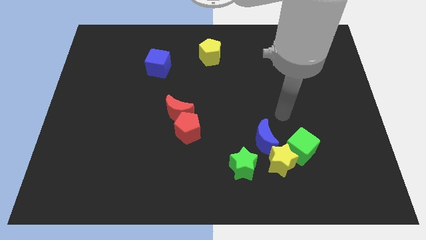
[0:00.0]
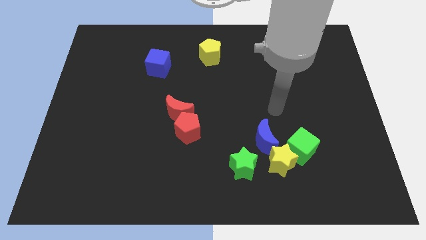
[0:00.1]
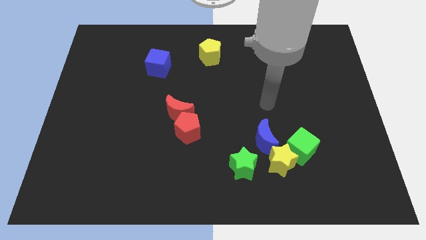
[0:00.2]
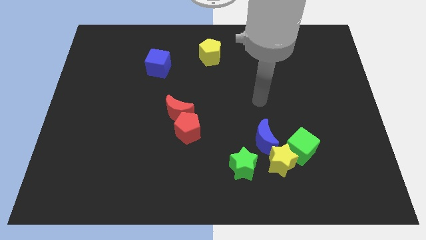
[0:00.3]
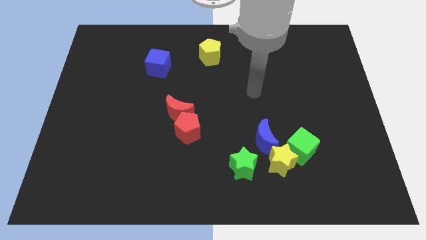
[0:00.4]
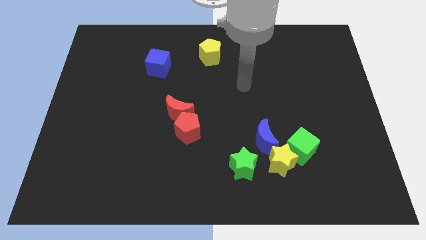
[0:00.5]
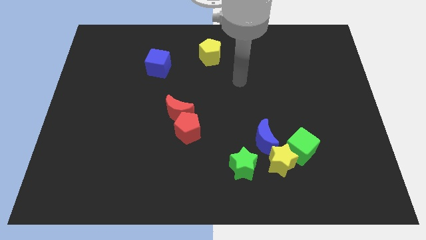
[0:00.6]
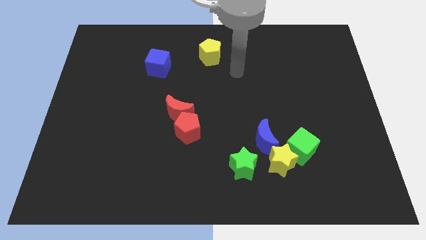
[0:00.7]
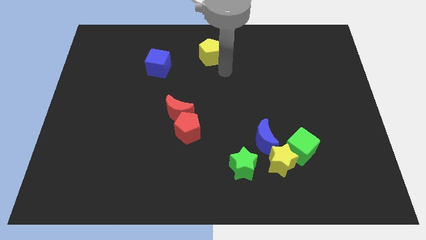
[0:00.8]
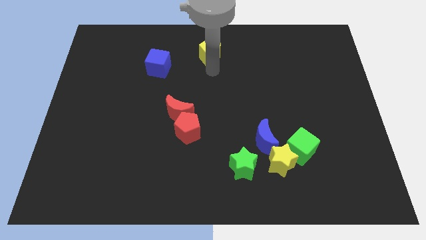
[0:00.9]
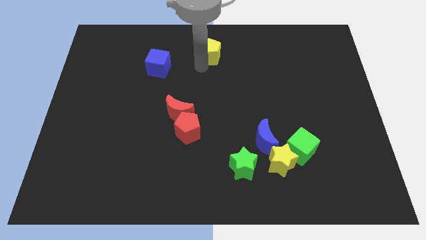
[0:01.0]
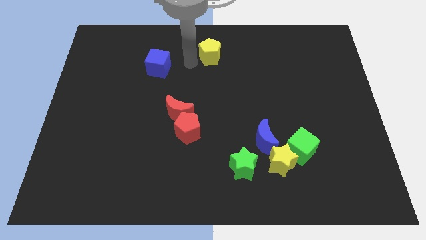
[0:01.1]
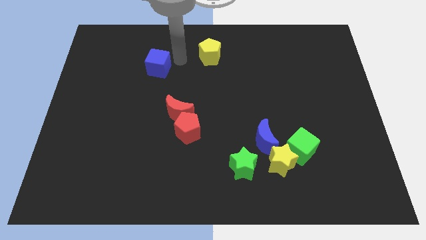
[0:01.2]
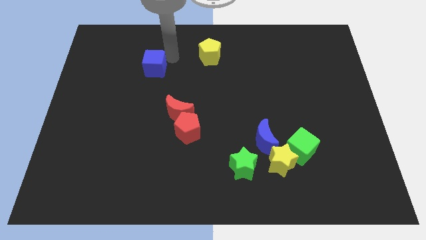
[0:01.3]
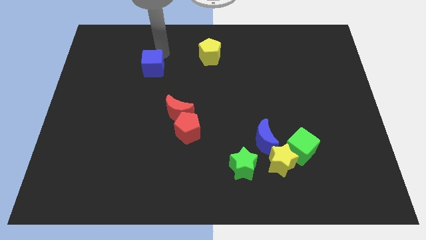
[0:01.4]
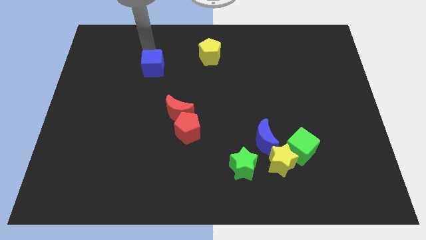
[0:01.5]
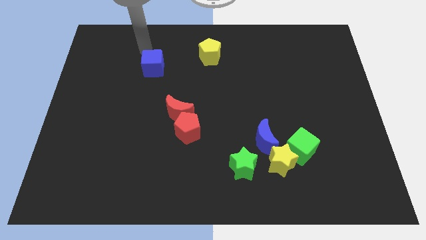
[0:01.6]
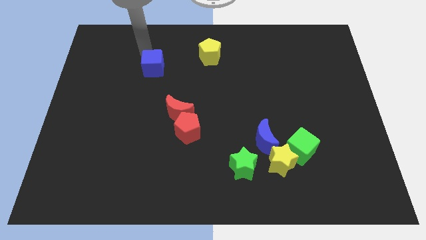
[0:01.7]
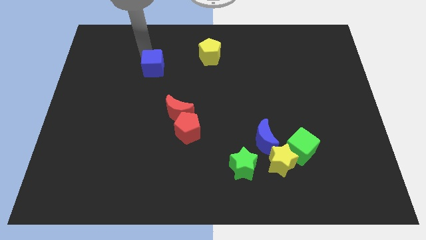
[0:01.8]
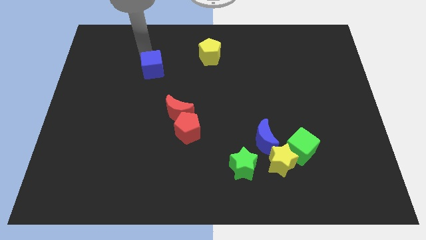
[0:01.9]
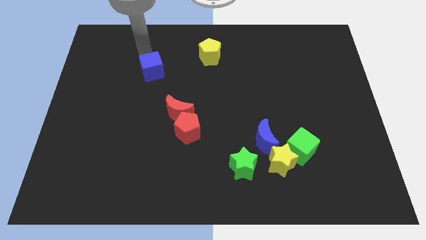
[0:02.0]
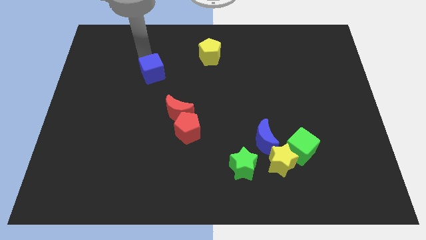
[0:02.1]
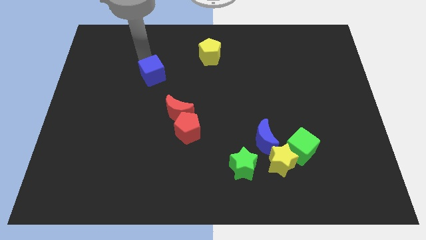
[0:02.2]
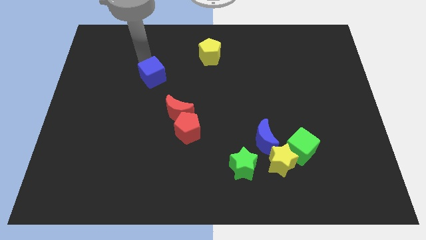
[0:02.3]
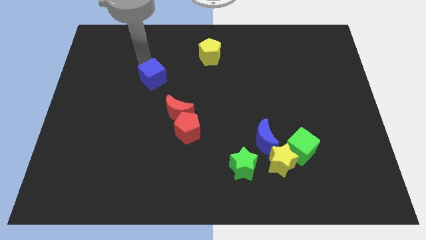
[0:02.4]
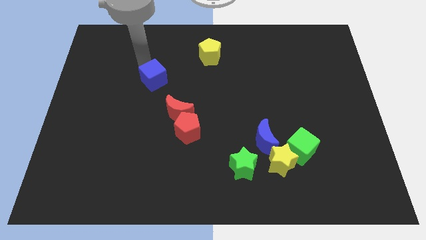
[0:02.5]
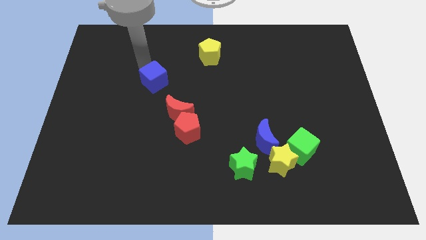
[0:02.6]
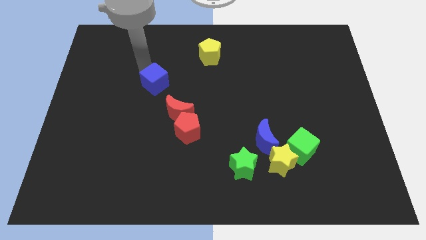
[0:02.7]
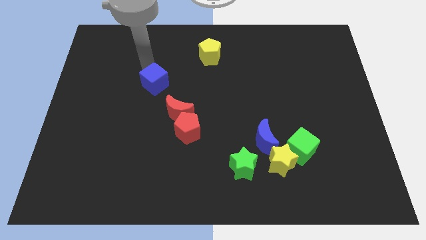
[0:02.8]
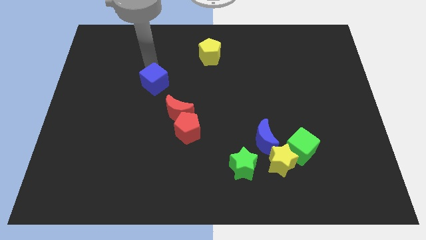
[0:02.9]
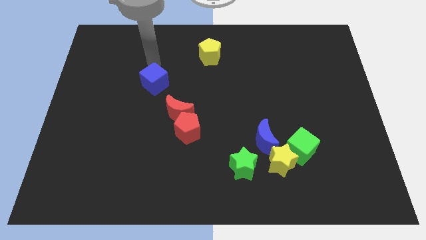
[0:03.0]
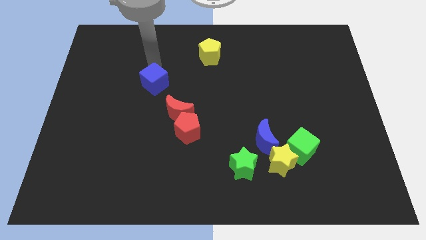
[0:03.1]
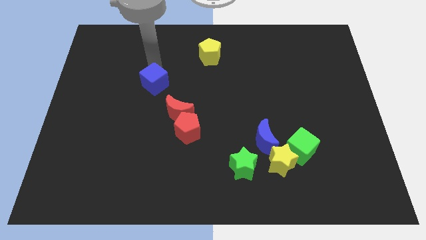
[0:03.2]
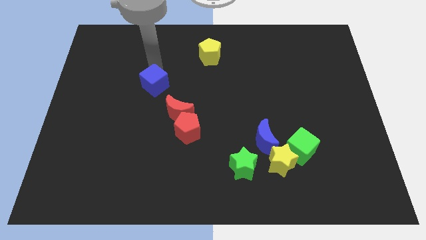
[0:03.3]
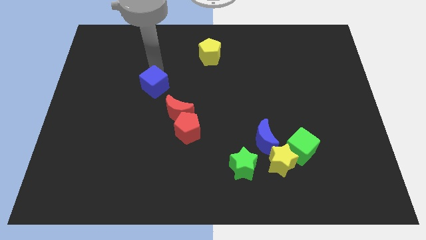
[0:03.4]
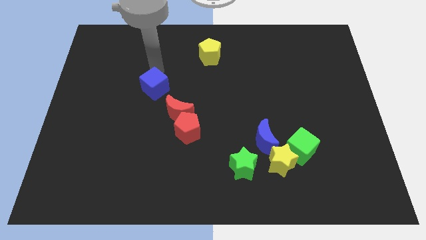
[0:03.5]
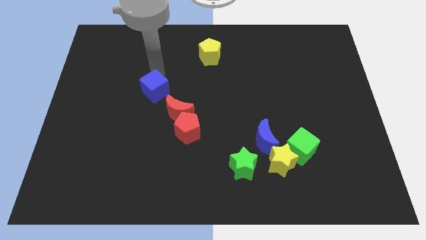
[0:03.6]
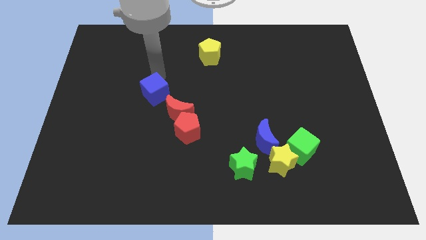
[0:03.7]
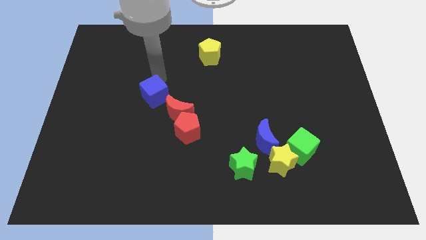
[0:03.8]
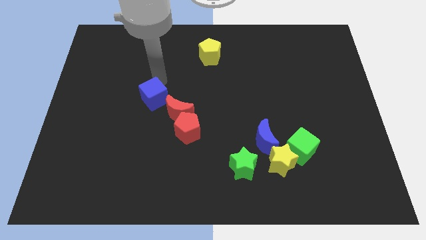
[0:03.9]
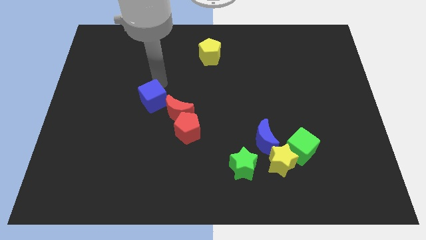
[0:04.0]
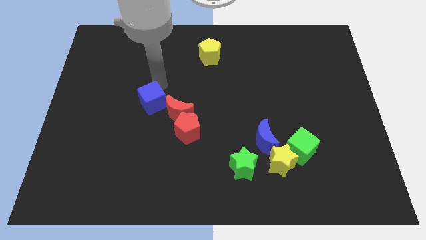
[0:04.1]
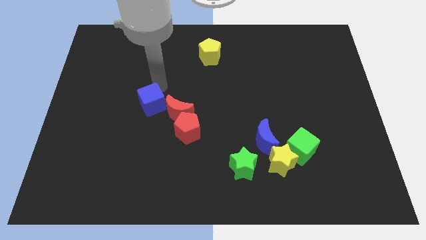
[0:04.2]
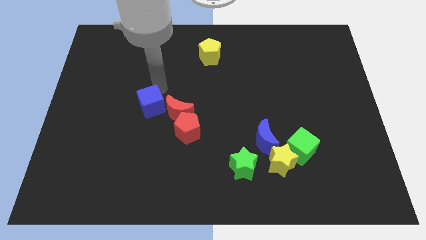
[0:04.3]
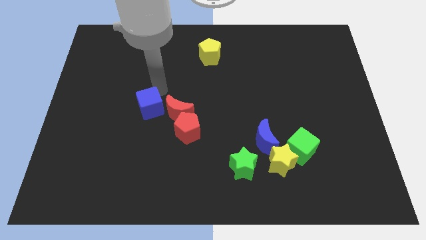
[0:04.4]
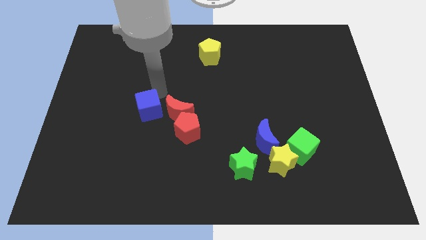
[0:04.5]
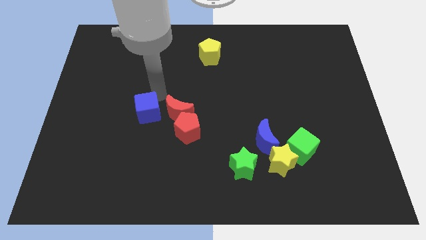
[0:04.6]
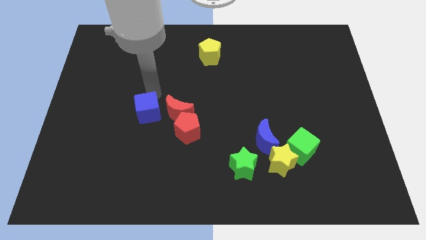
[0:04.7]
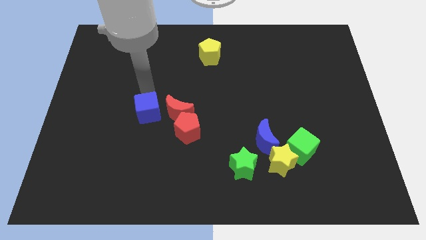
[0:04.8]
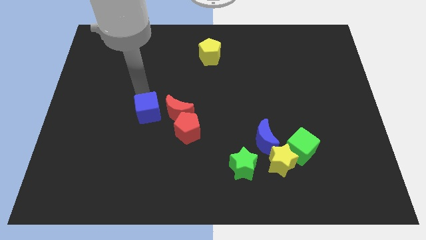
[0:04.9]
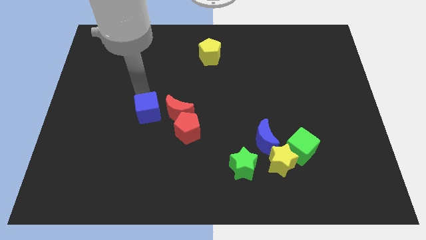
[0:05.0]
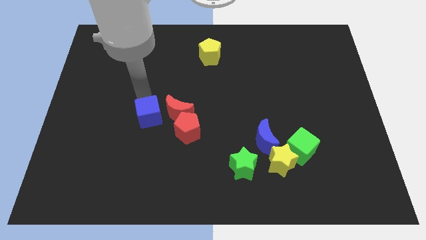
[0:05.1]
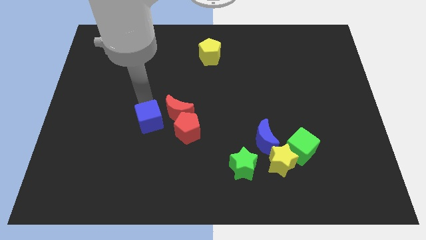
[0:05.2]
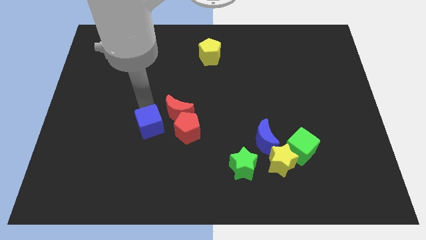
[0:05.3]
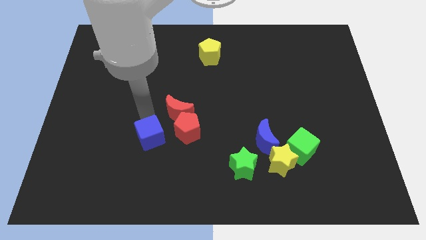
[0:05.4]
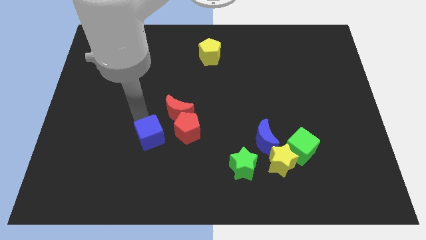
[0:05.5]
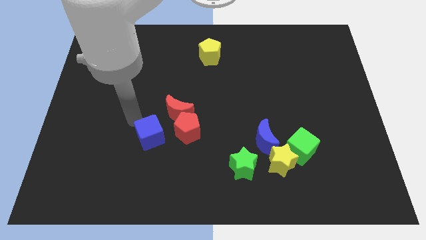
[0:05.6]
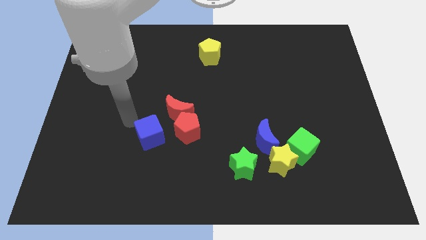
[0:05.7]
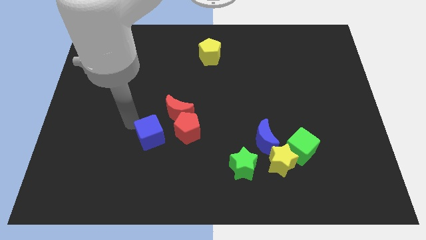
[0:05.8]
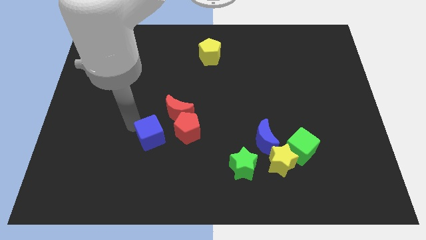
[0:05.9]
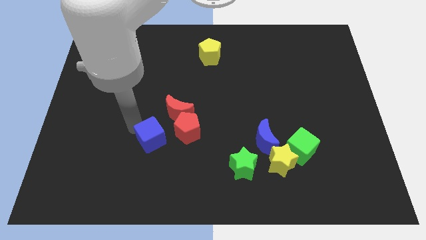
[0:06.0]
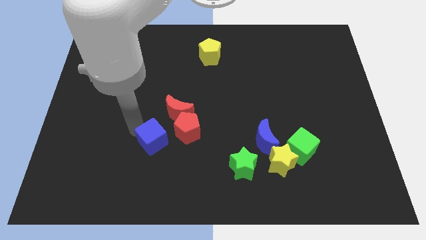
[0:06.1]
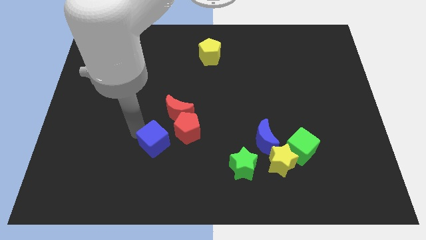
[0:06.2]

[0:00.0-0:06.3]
push the blue cube to the bottom of the red moon

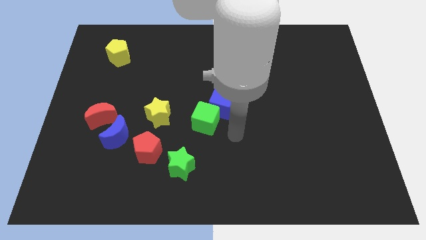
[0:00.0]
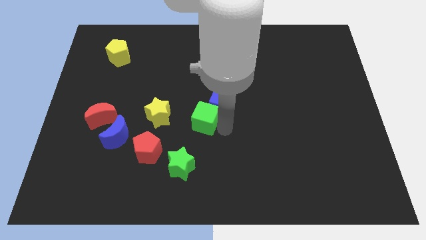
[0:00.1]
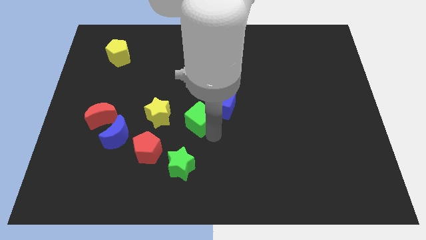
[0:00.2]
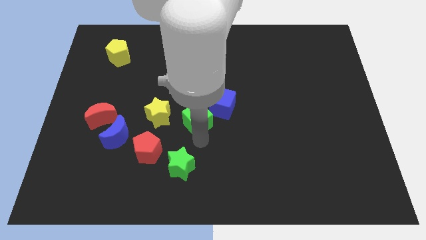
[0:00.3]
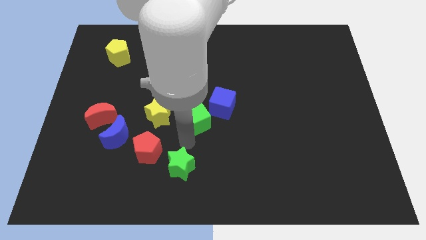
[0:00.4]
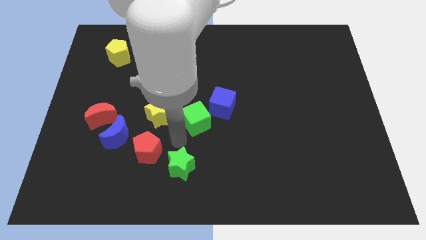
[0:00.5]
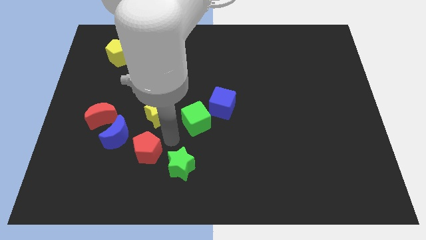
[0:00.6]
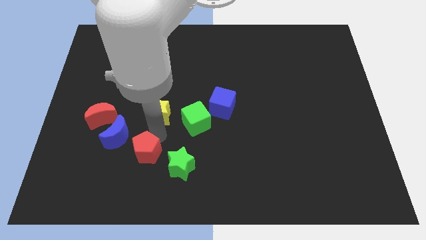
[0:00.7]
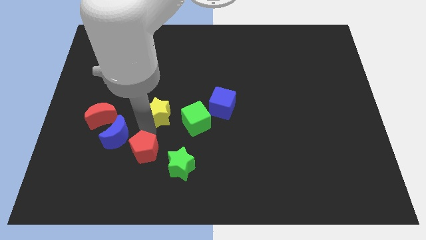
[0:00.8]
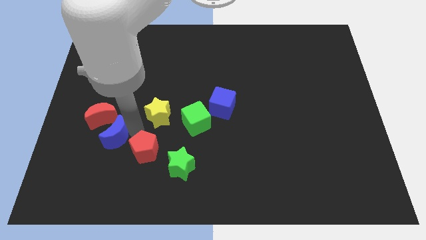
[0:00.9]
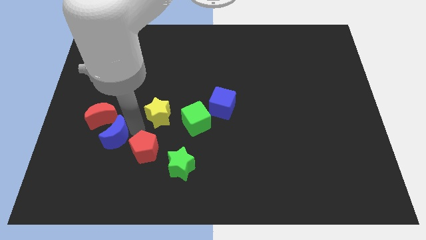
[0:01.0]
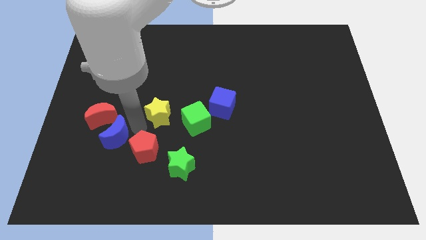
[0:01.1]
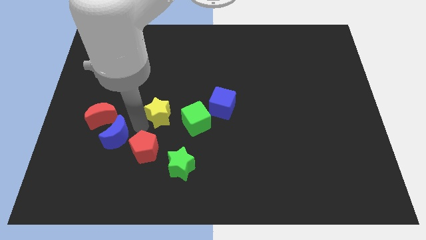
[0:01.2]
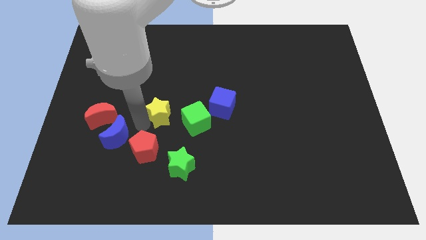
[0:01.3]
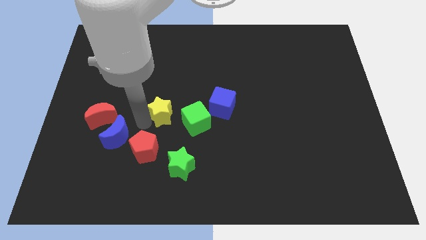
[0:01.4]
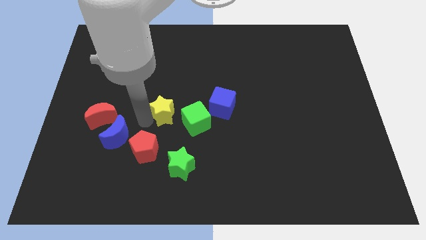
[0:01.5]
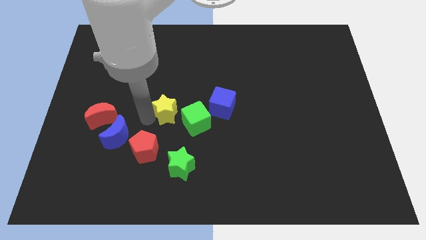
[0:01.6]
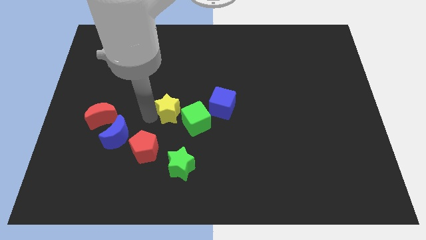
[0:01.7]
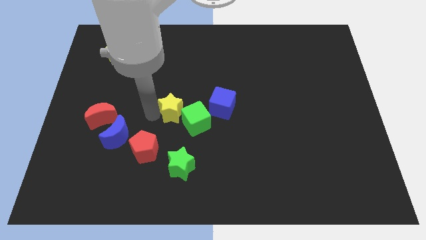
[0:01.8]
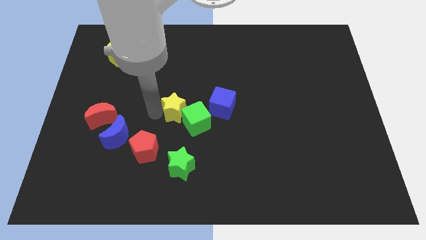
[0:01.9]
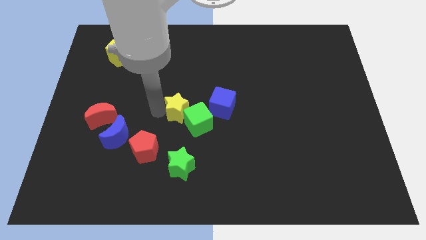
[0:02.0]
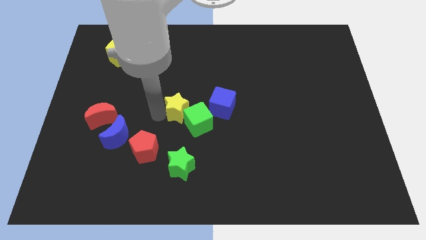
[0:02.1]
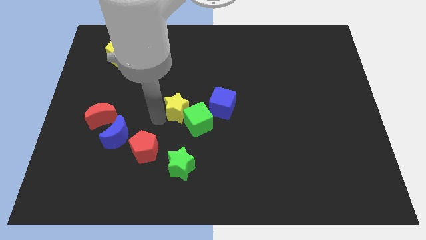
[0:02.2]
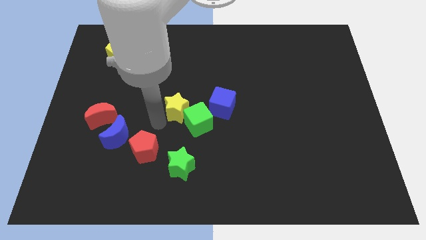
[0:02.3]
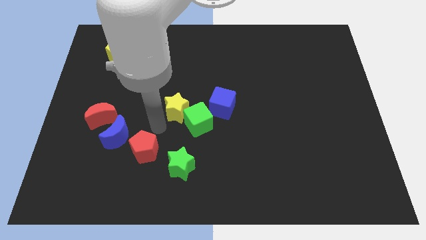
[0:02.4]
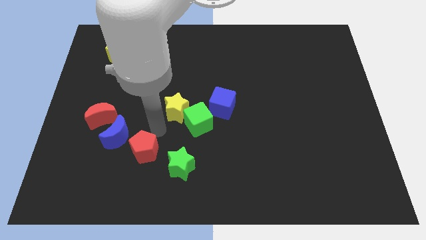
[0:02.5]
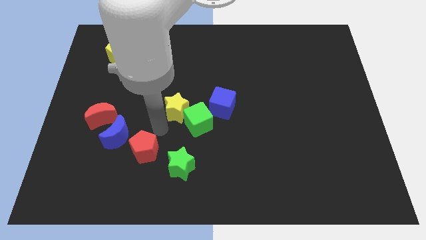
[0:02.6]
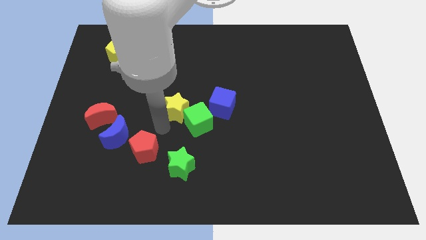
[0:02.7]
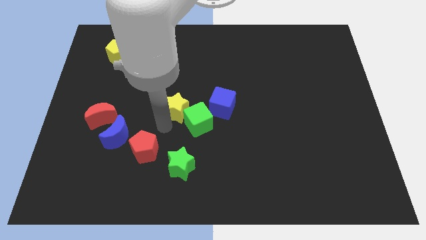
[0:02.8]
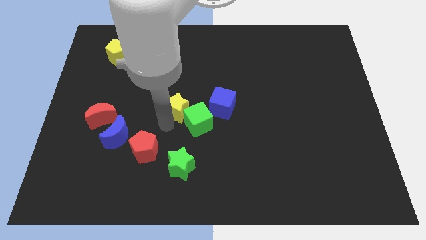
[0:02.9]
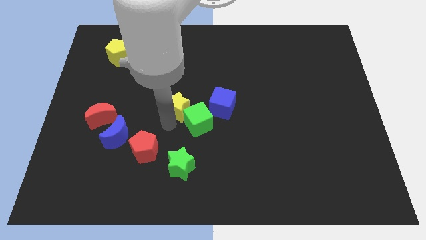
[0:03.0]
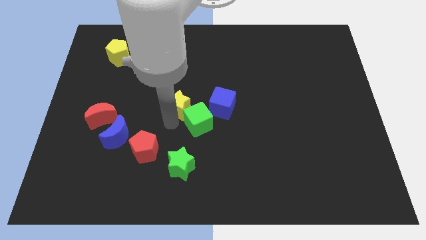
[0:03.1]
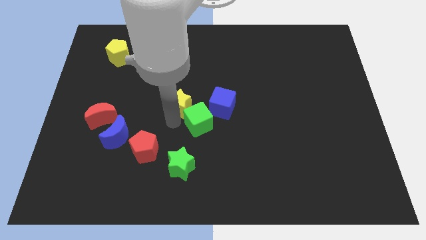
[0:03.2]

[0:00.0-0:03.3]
slide the yellow star to the top of the green cube
